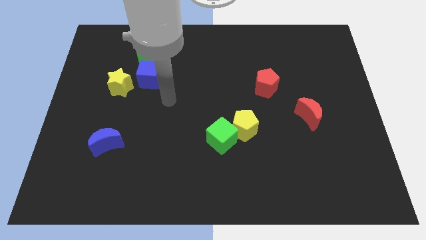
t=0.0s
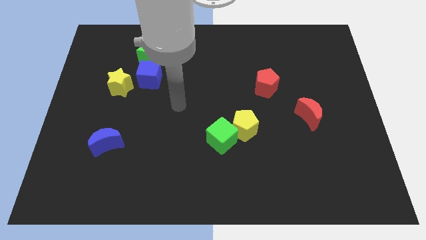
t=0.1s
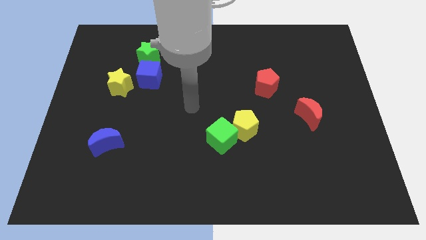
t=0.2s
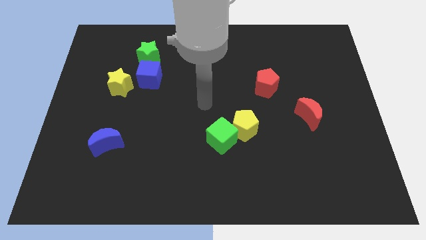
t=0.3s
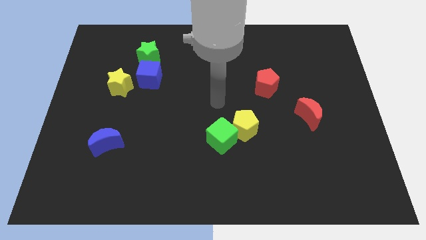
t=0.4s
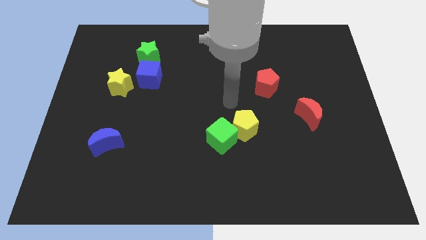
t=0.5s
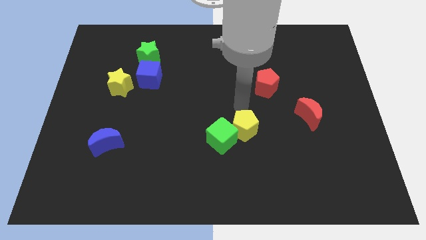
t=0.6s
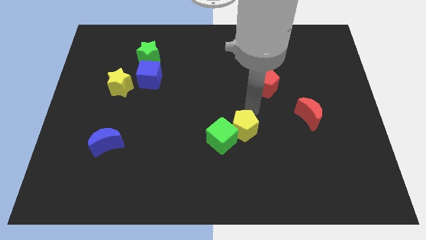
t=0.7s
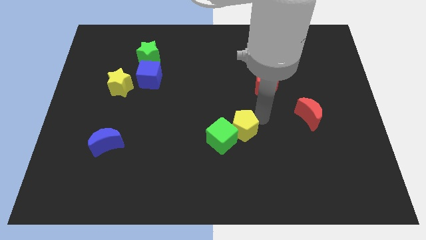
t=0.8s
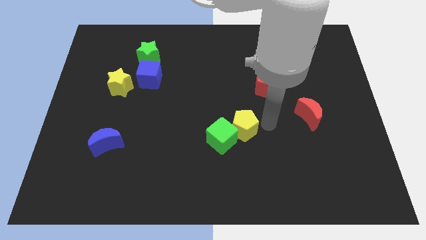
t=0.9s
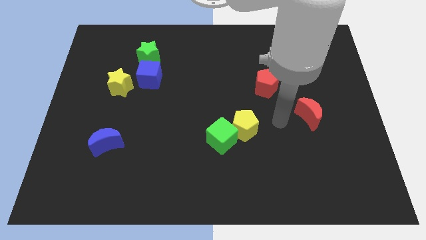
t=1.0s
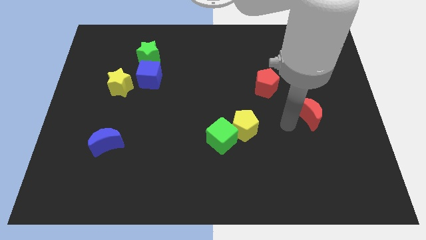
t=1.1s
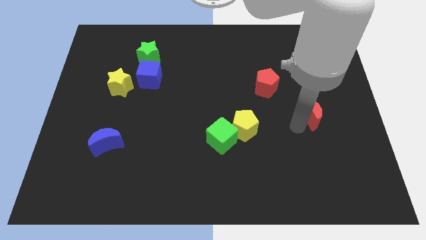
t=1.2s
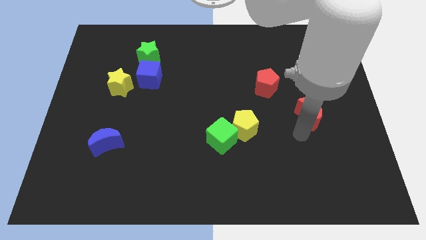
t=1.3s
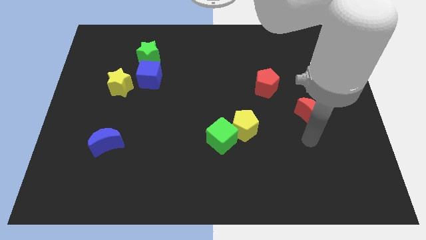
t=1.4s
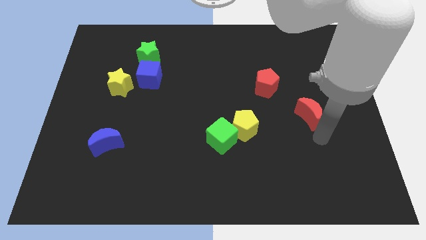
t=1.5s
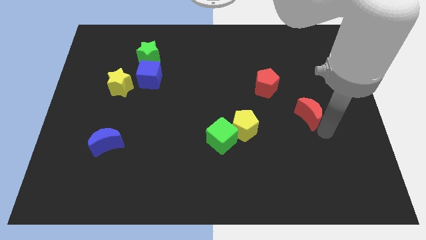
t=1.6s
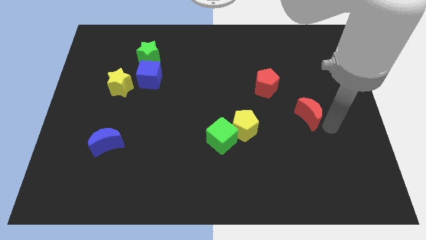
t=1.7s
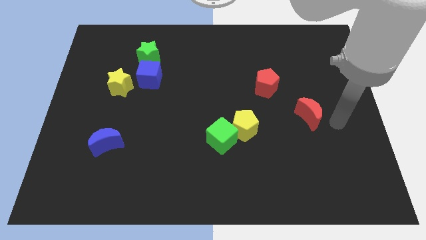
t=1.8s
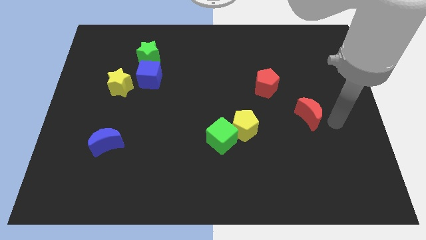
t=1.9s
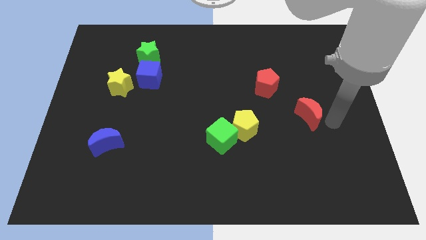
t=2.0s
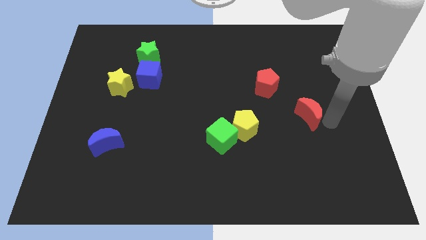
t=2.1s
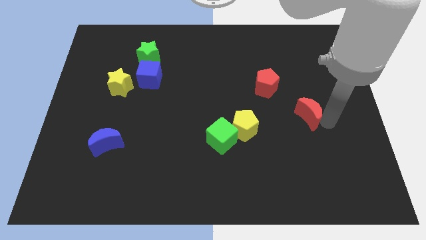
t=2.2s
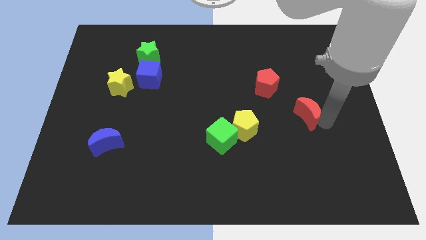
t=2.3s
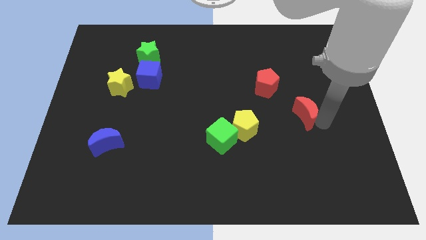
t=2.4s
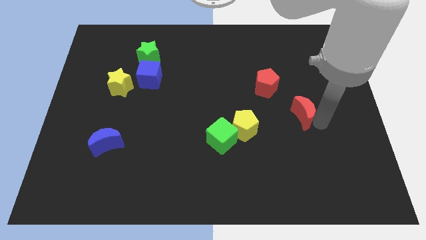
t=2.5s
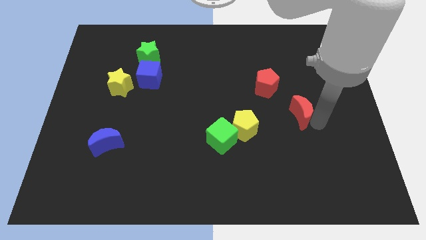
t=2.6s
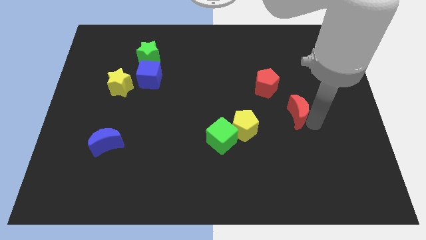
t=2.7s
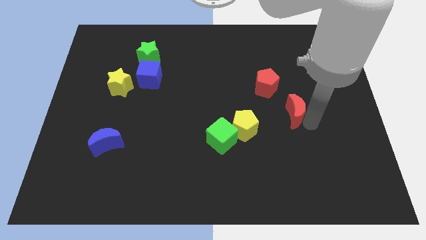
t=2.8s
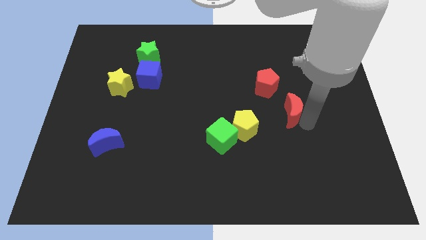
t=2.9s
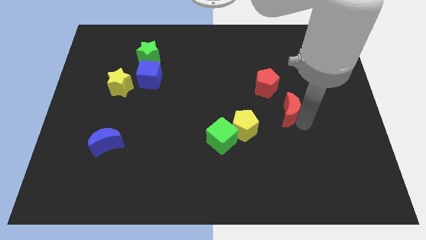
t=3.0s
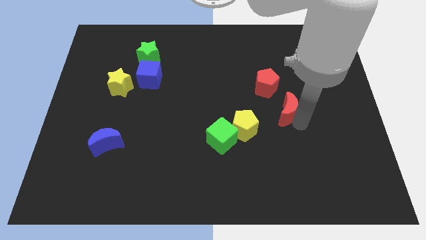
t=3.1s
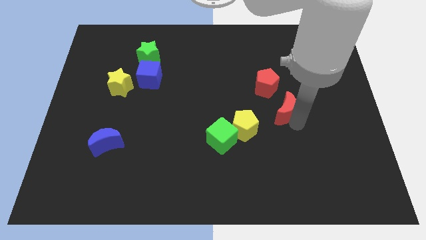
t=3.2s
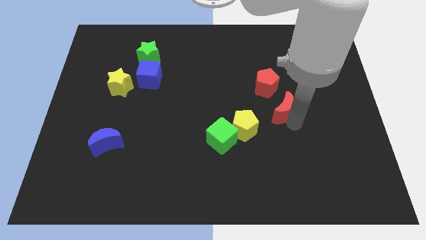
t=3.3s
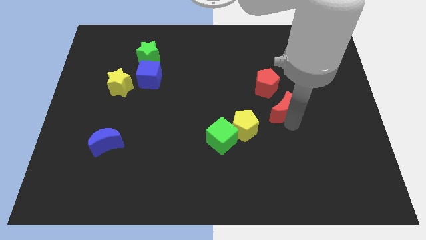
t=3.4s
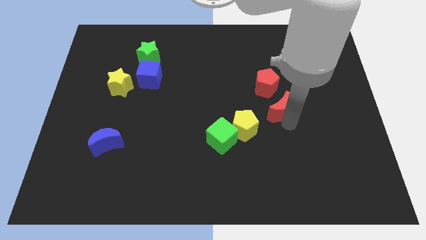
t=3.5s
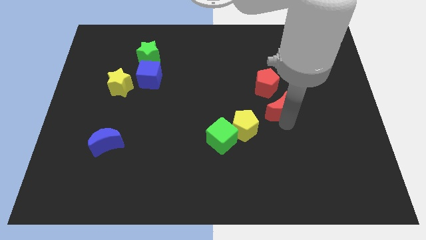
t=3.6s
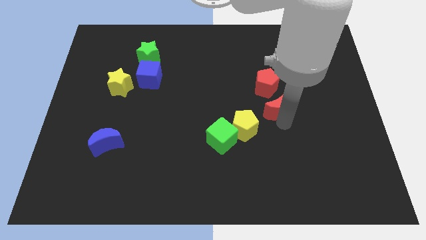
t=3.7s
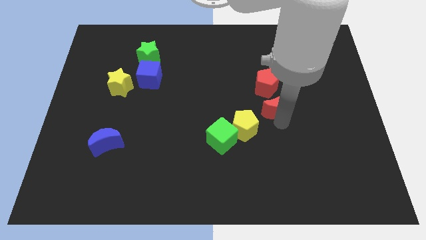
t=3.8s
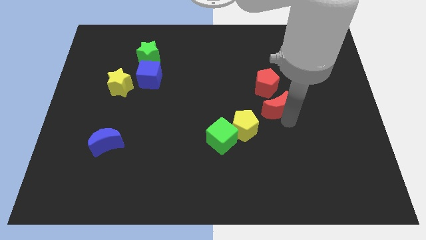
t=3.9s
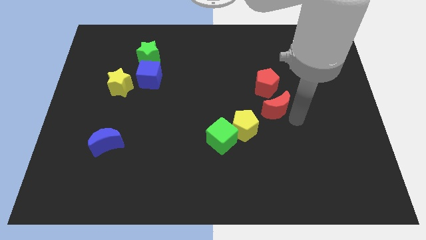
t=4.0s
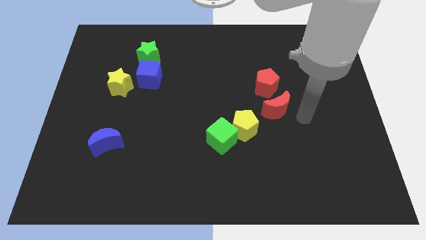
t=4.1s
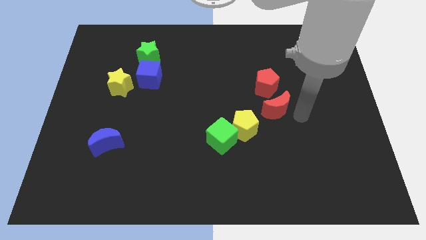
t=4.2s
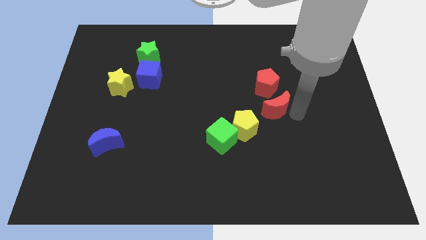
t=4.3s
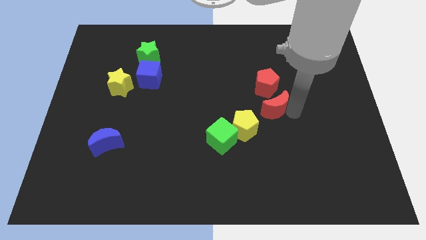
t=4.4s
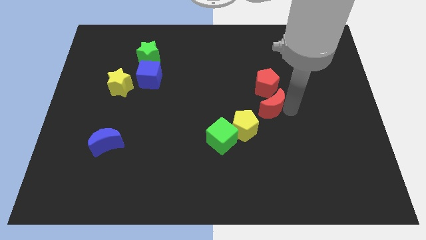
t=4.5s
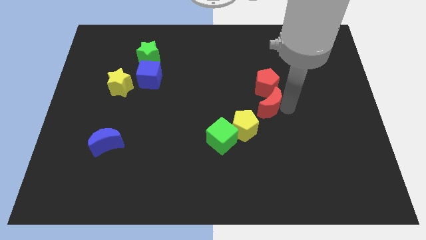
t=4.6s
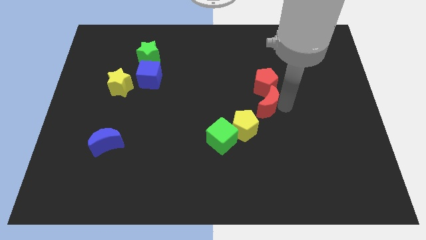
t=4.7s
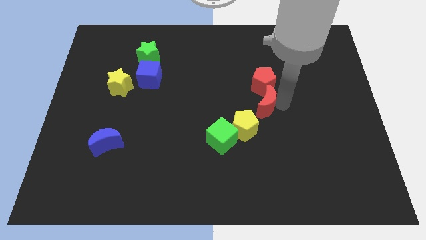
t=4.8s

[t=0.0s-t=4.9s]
put the red moon to the middle

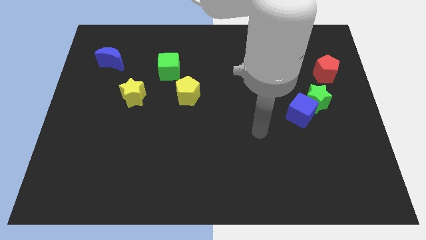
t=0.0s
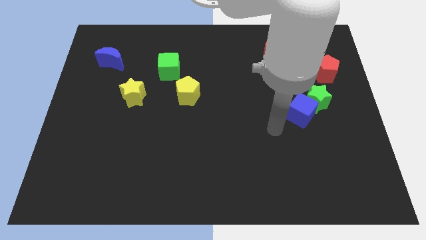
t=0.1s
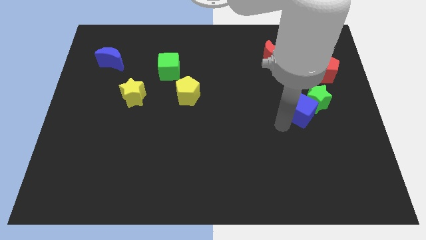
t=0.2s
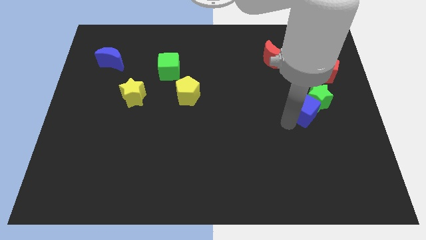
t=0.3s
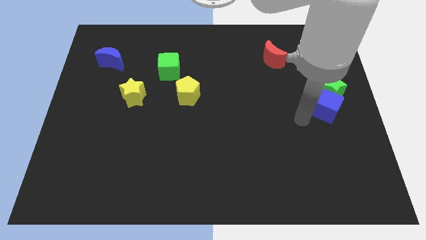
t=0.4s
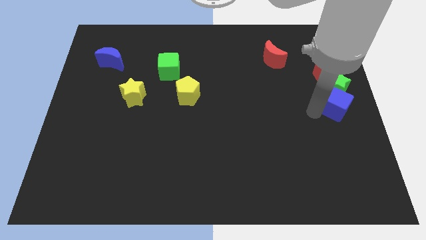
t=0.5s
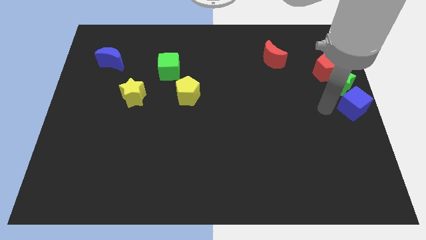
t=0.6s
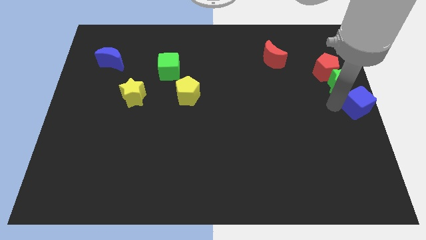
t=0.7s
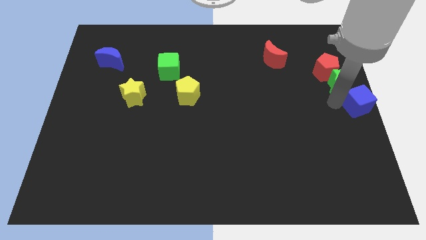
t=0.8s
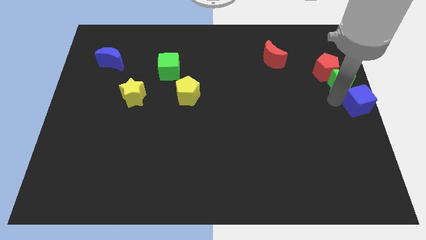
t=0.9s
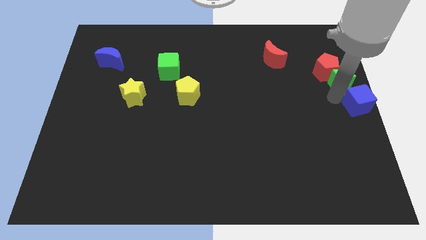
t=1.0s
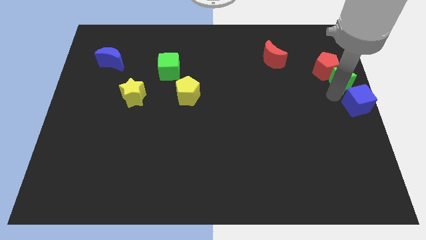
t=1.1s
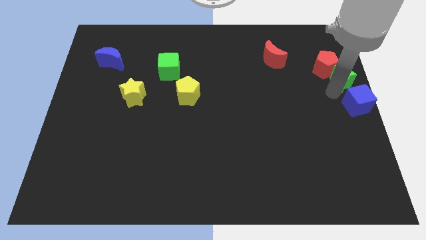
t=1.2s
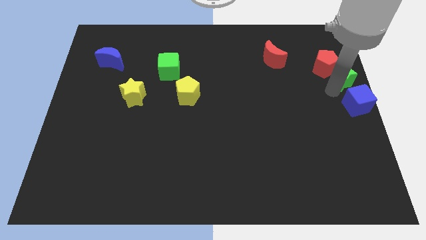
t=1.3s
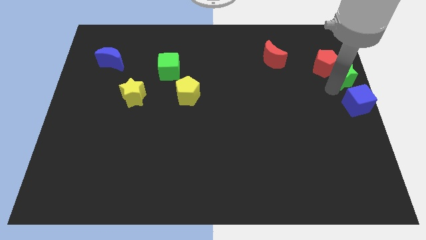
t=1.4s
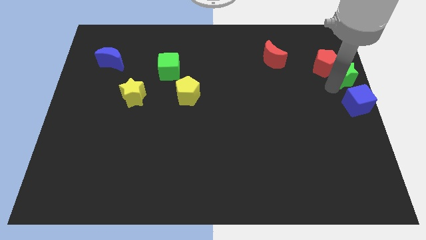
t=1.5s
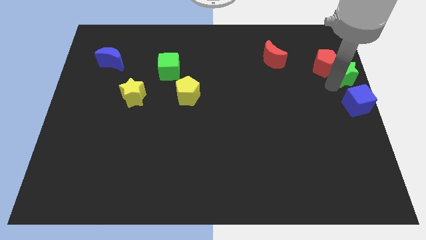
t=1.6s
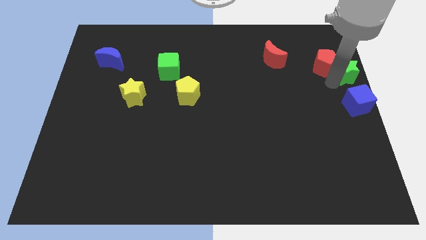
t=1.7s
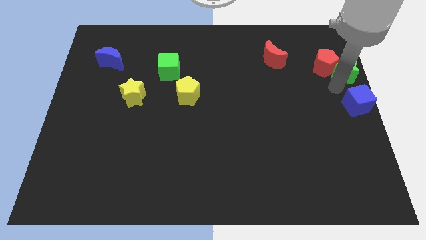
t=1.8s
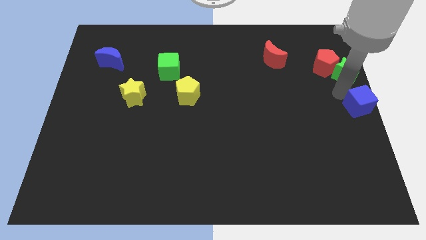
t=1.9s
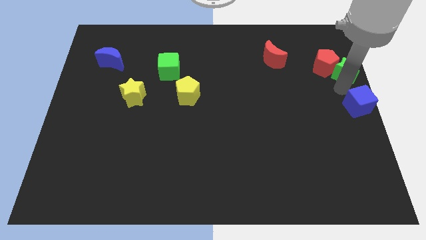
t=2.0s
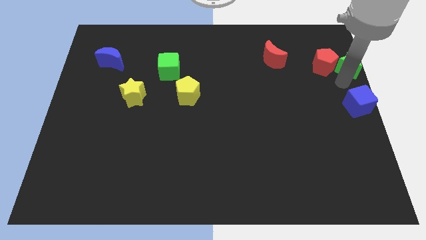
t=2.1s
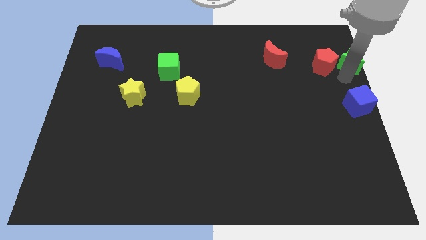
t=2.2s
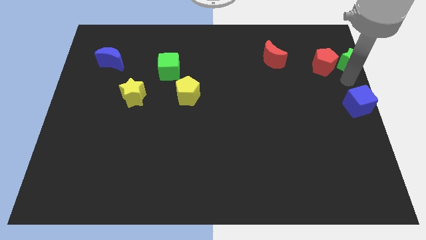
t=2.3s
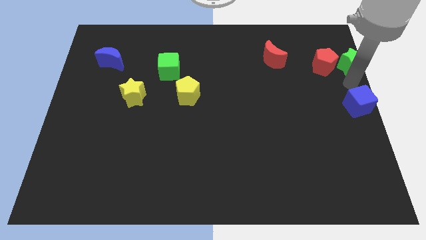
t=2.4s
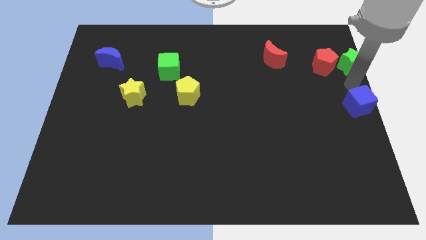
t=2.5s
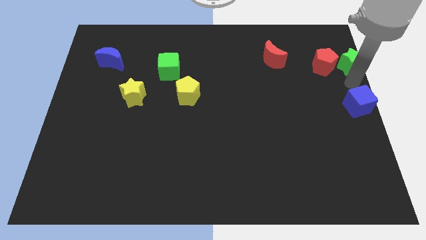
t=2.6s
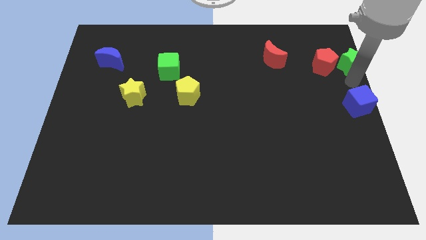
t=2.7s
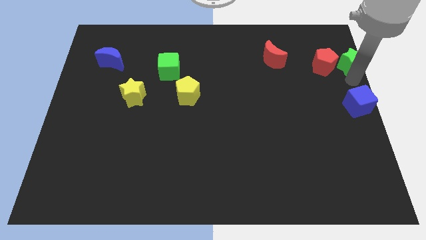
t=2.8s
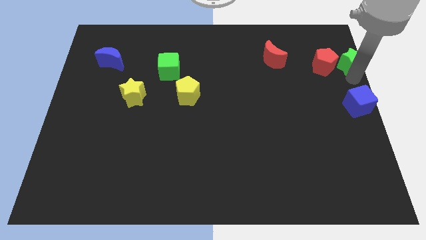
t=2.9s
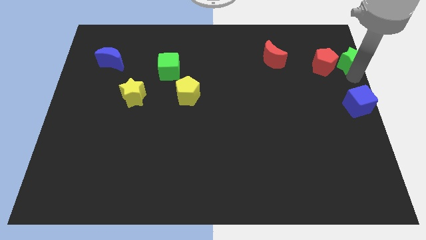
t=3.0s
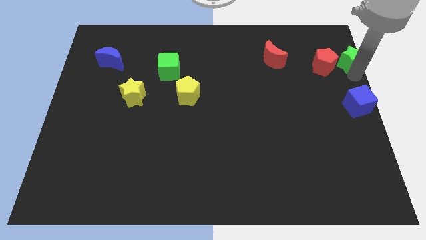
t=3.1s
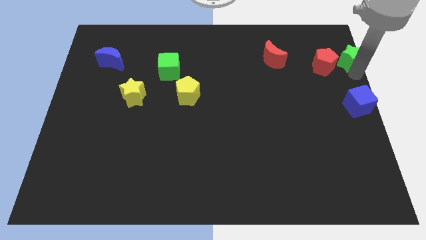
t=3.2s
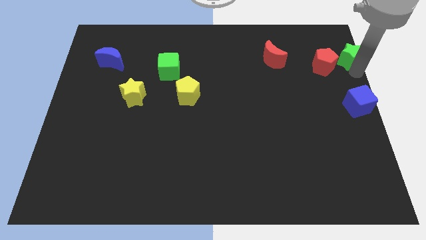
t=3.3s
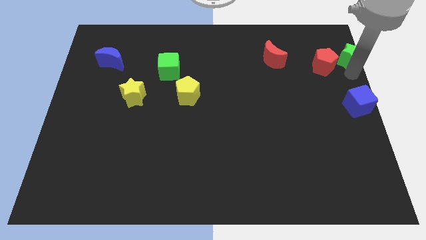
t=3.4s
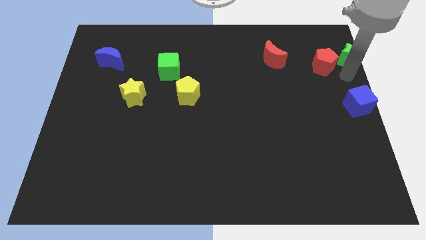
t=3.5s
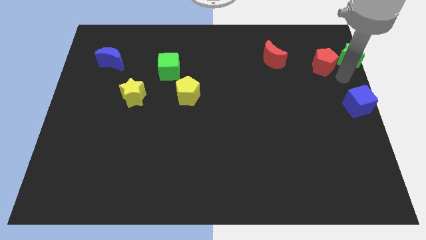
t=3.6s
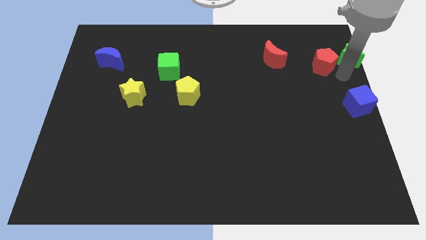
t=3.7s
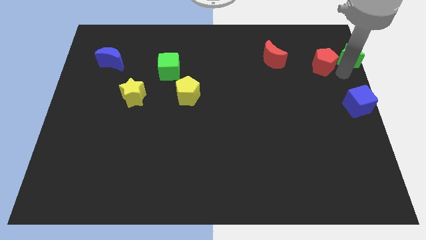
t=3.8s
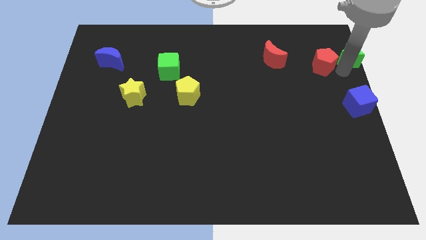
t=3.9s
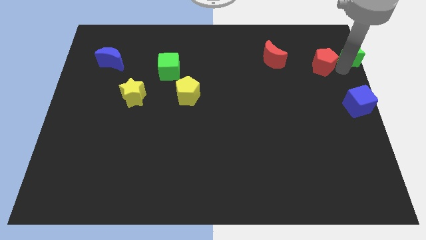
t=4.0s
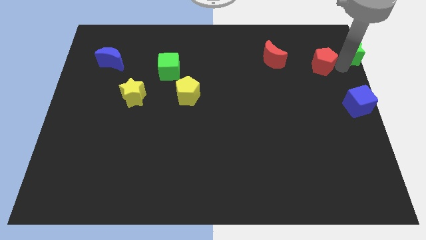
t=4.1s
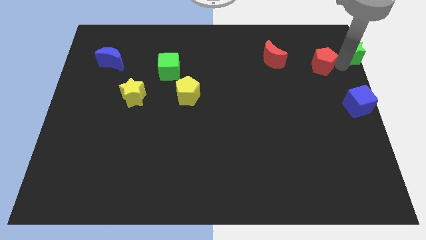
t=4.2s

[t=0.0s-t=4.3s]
slide the green star to the top right
